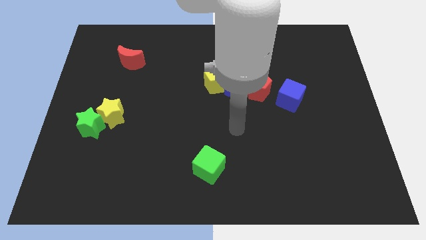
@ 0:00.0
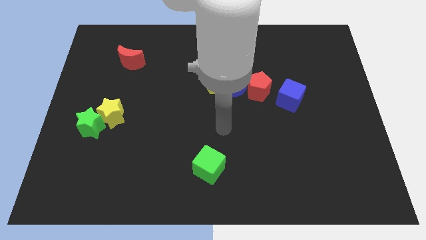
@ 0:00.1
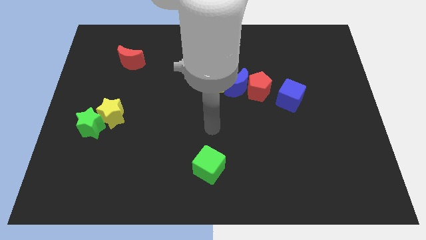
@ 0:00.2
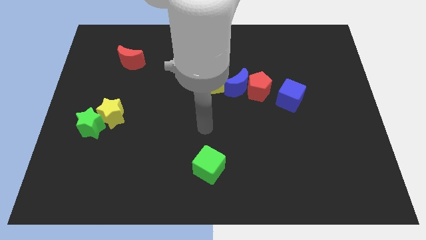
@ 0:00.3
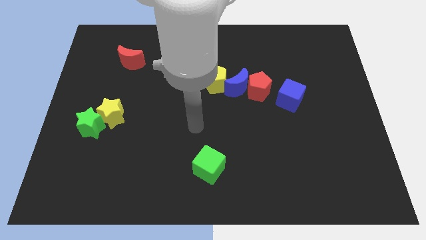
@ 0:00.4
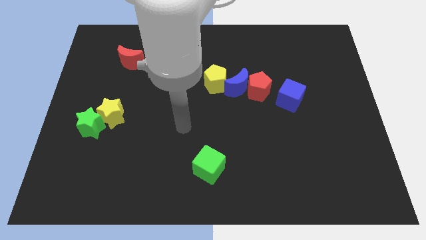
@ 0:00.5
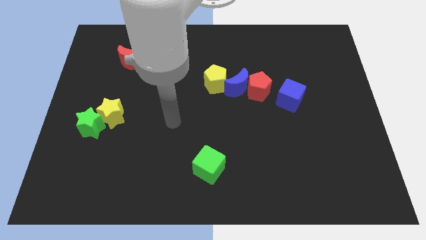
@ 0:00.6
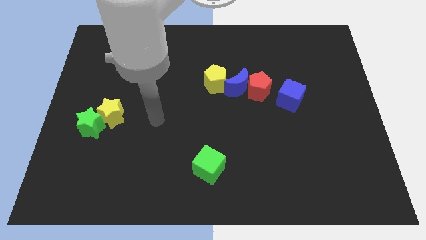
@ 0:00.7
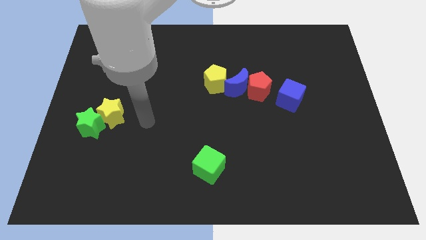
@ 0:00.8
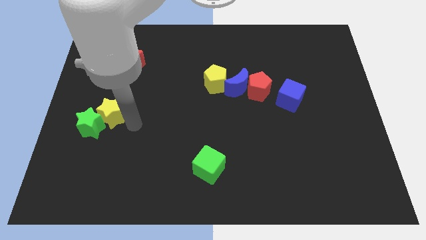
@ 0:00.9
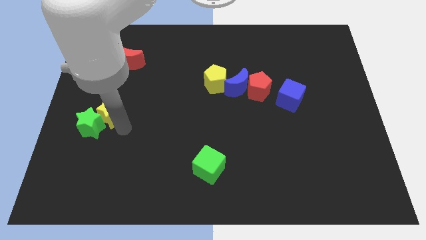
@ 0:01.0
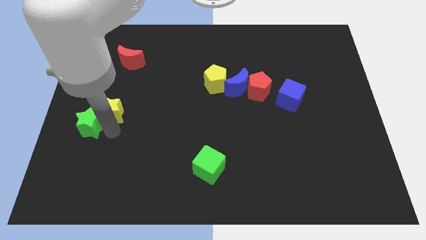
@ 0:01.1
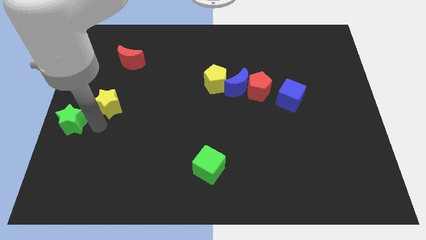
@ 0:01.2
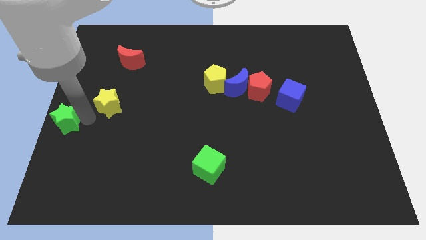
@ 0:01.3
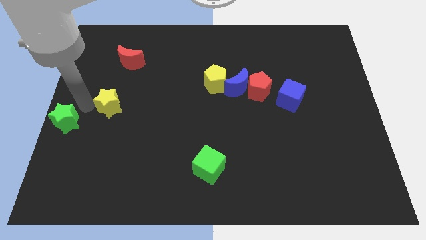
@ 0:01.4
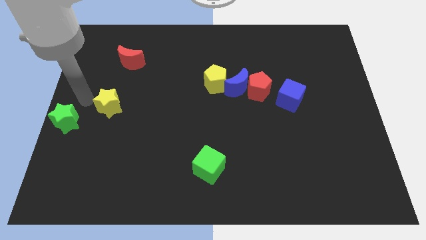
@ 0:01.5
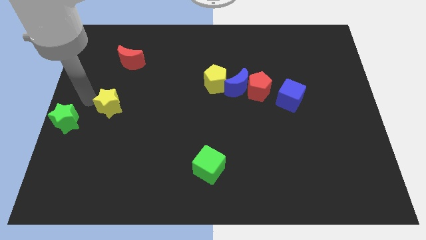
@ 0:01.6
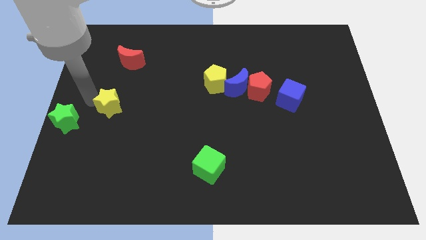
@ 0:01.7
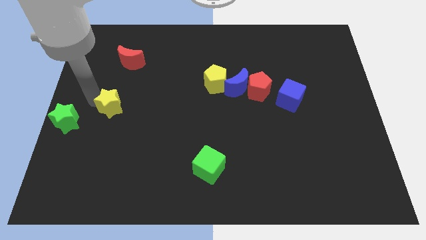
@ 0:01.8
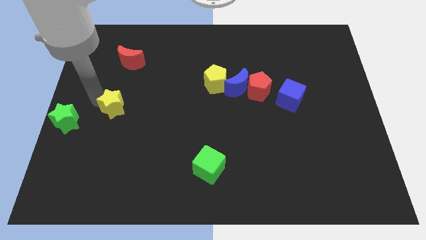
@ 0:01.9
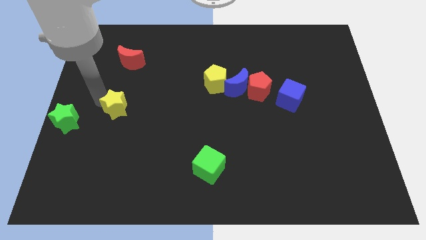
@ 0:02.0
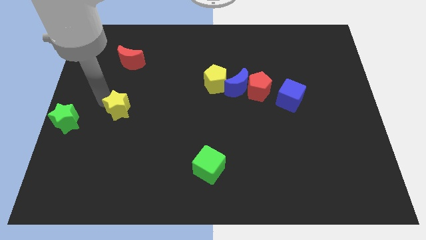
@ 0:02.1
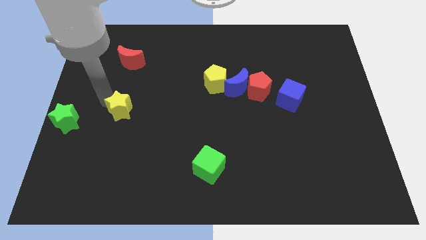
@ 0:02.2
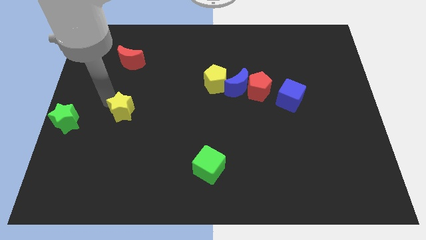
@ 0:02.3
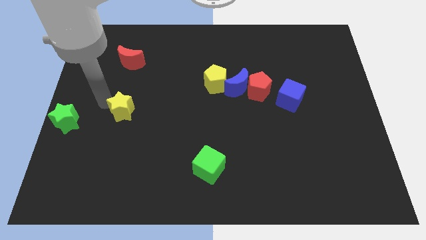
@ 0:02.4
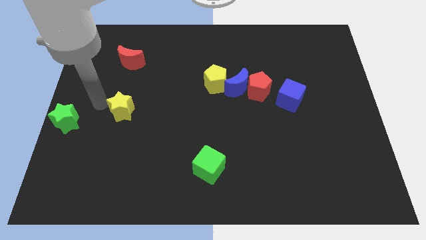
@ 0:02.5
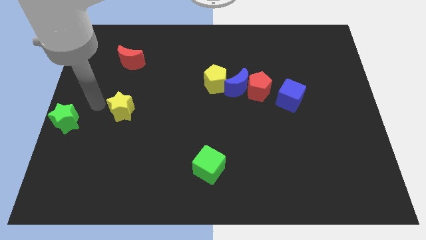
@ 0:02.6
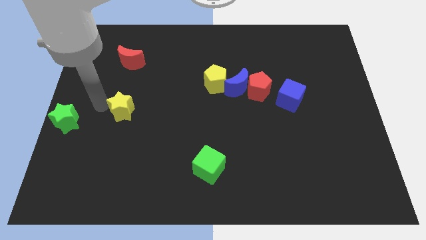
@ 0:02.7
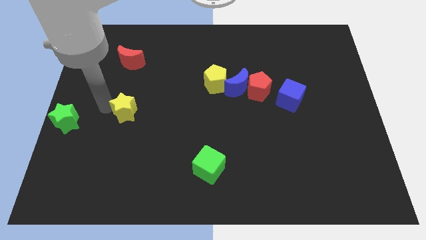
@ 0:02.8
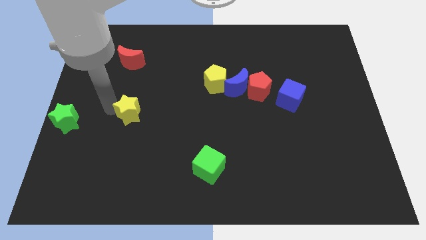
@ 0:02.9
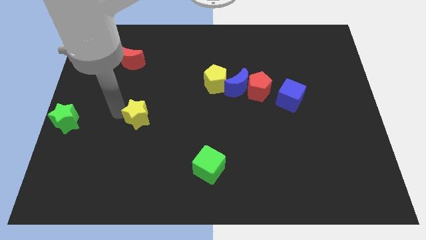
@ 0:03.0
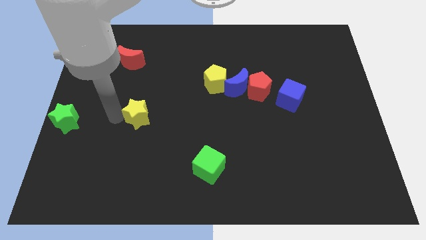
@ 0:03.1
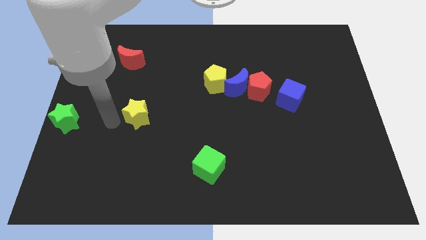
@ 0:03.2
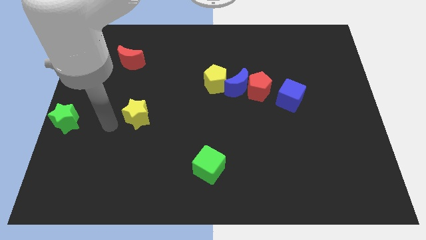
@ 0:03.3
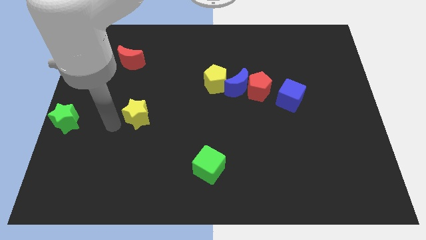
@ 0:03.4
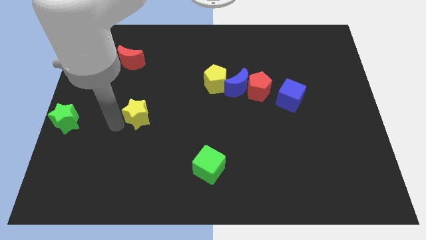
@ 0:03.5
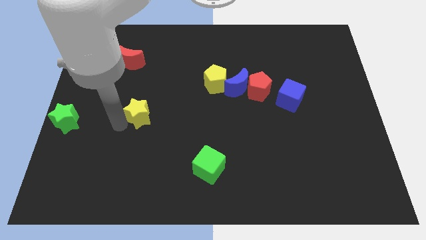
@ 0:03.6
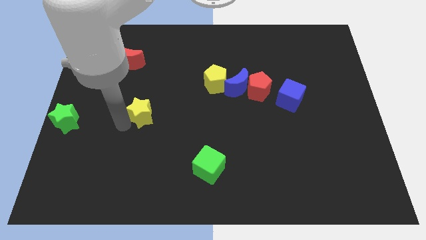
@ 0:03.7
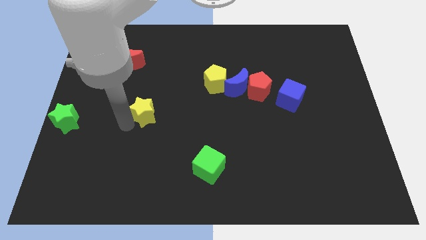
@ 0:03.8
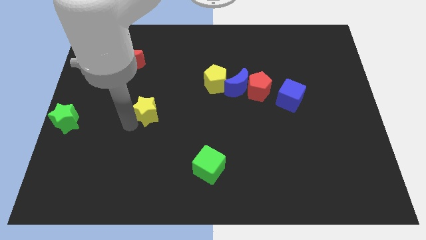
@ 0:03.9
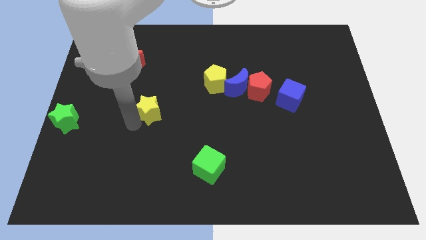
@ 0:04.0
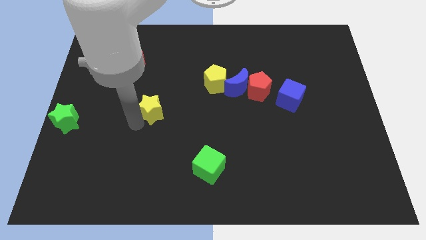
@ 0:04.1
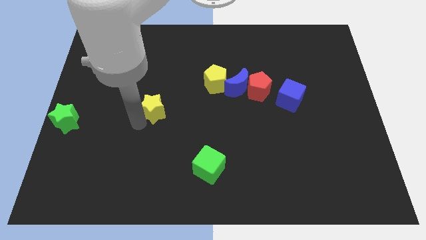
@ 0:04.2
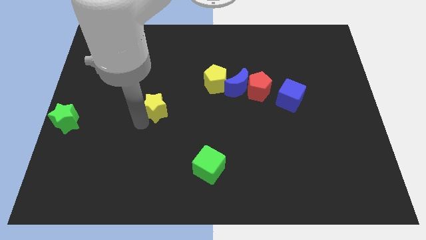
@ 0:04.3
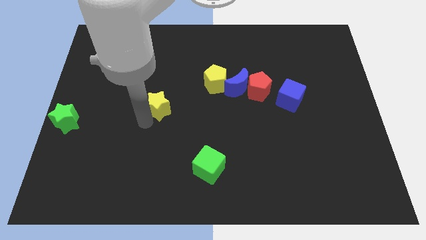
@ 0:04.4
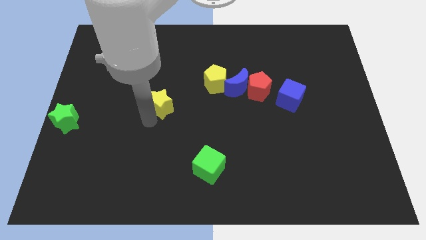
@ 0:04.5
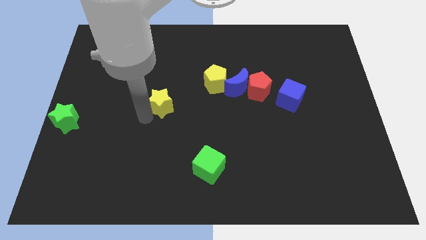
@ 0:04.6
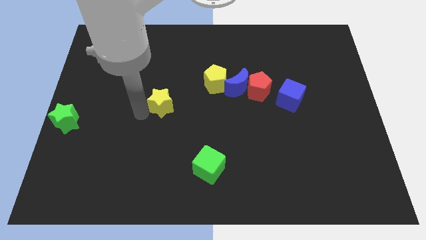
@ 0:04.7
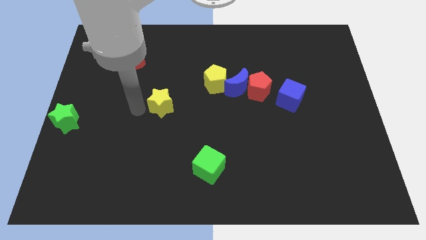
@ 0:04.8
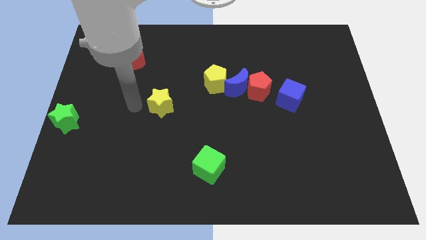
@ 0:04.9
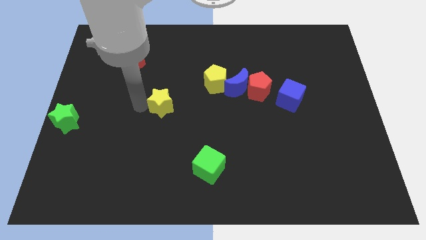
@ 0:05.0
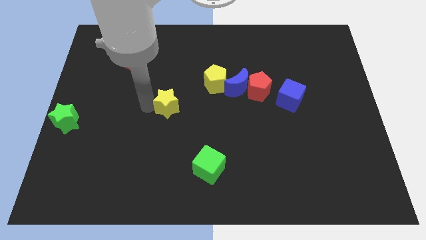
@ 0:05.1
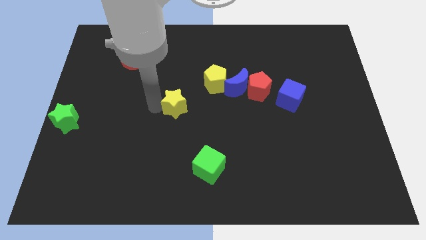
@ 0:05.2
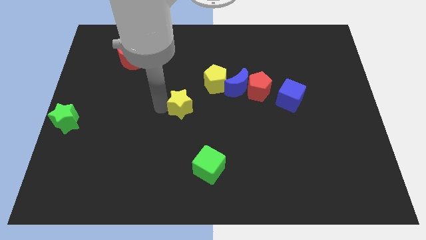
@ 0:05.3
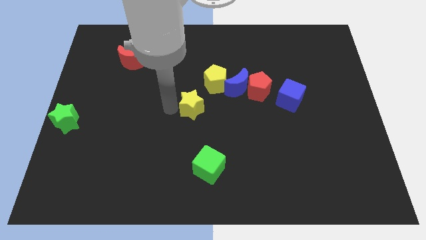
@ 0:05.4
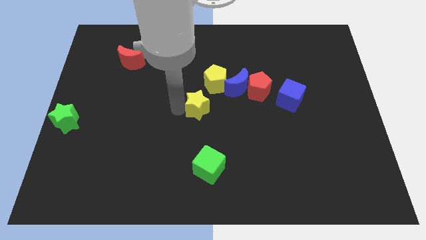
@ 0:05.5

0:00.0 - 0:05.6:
move the yellow star to the bottom left side of the blue moon

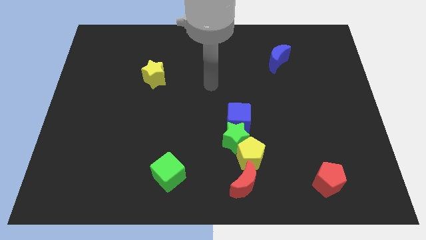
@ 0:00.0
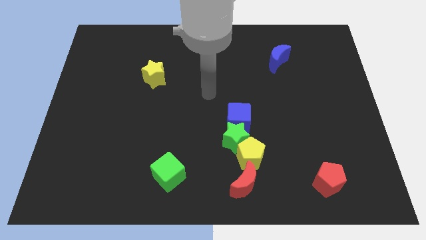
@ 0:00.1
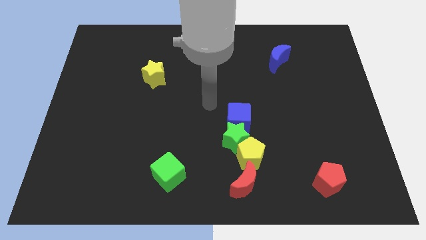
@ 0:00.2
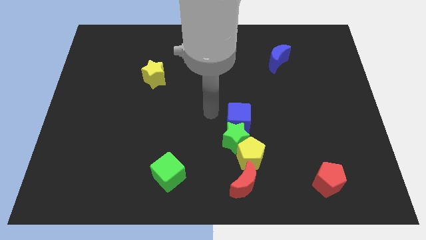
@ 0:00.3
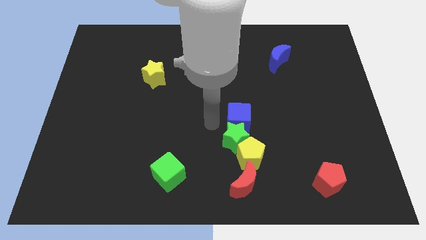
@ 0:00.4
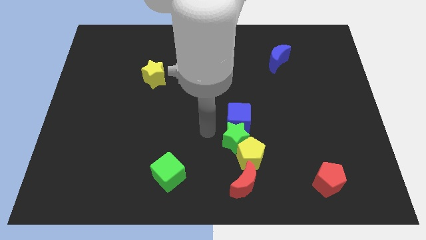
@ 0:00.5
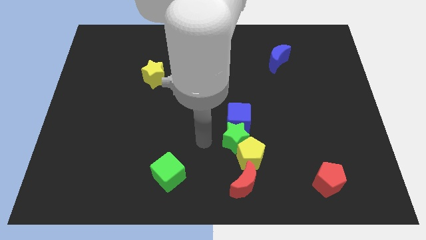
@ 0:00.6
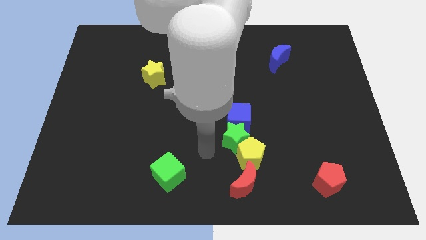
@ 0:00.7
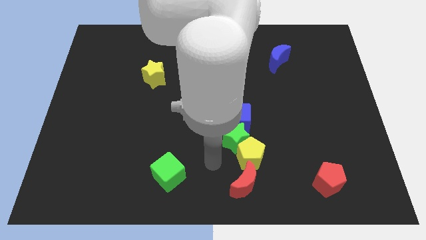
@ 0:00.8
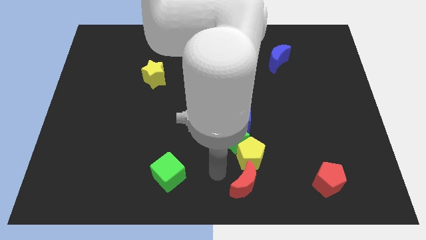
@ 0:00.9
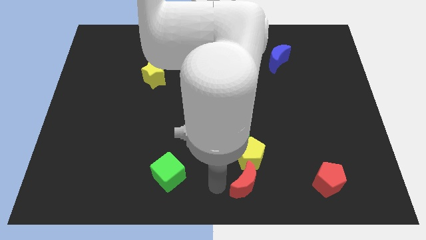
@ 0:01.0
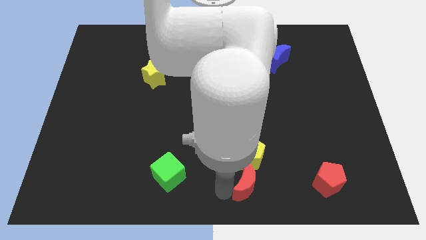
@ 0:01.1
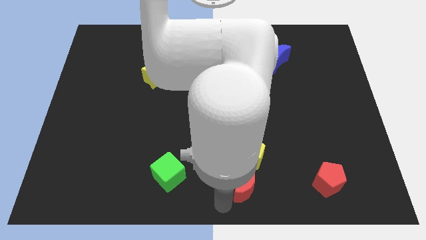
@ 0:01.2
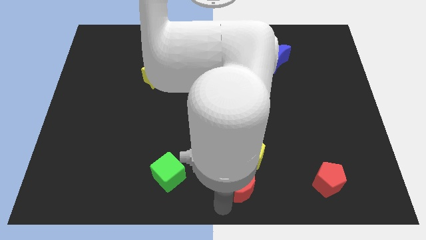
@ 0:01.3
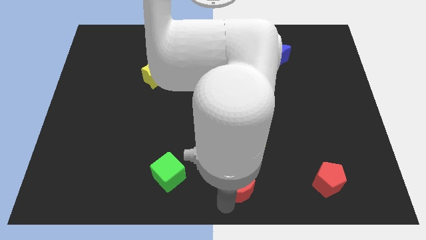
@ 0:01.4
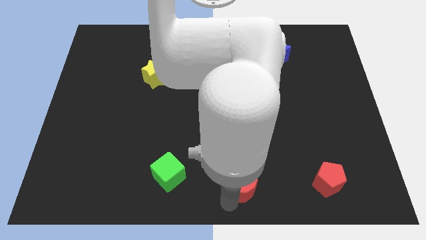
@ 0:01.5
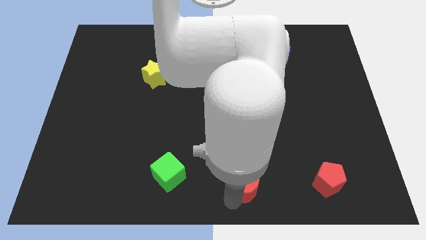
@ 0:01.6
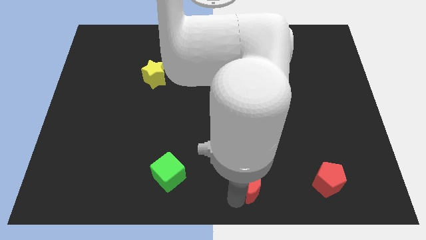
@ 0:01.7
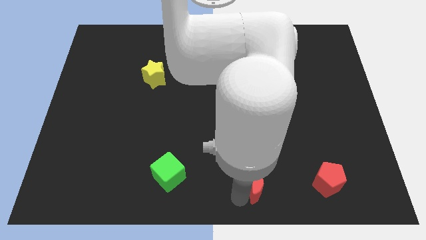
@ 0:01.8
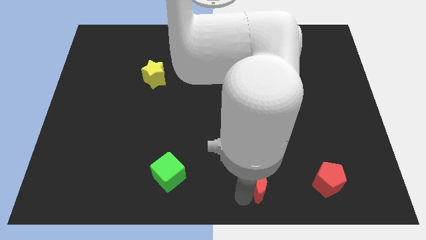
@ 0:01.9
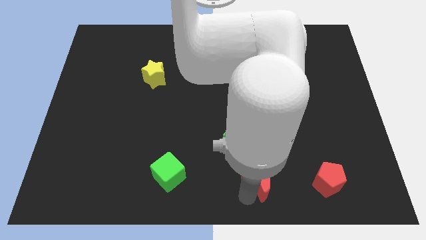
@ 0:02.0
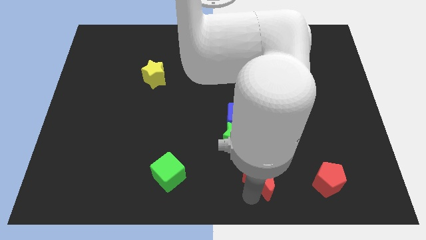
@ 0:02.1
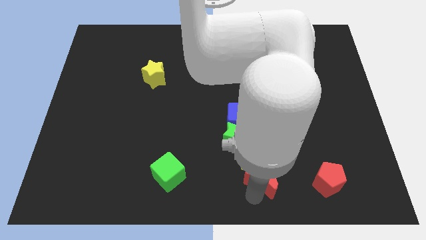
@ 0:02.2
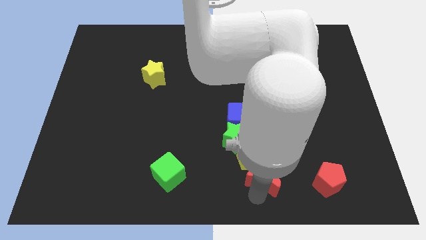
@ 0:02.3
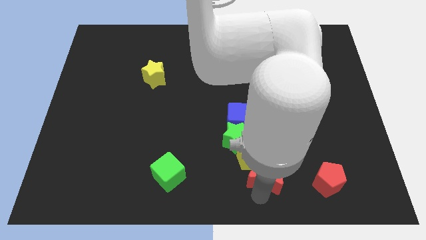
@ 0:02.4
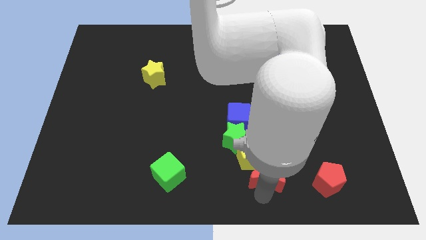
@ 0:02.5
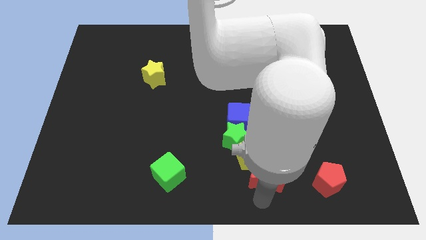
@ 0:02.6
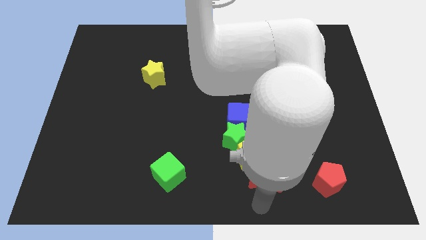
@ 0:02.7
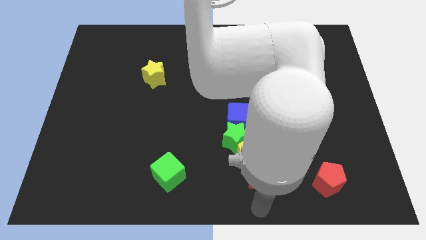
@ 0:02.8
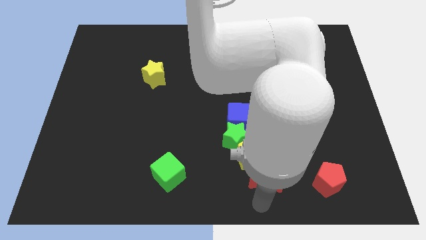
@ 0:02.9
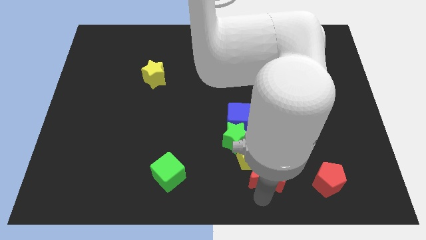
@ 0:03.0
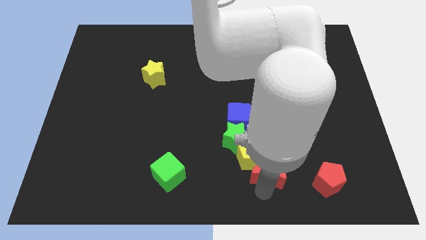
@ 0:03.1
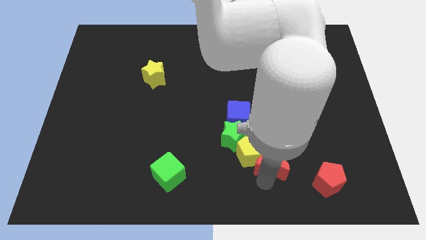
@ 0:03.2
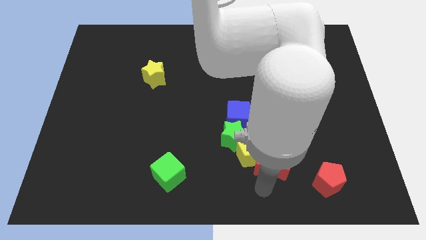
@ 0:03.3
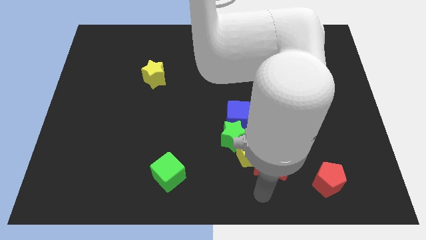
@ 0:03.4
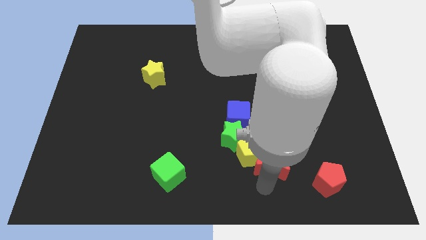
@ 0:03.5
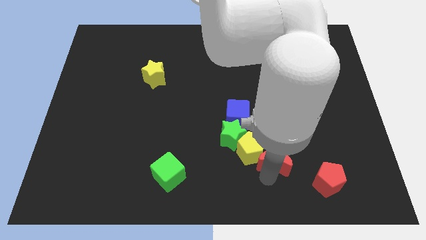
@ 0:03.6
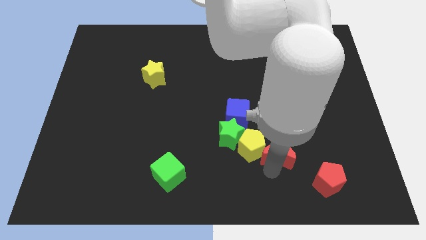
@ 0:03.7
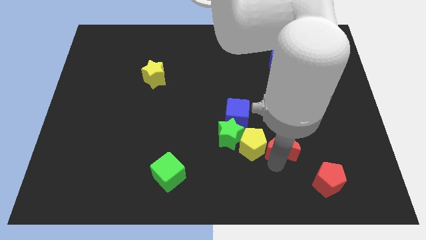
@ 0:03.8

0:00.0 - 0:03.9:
move the red moon right of the green star
